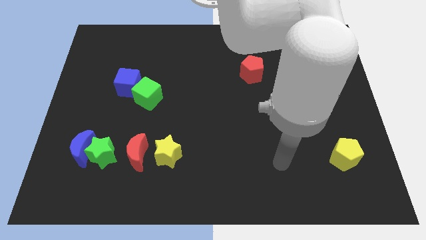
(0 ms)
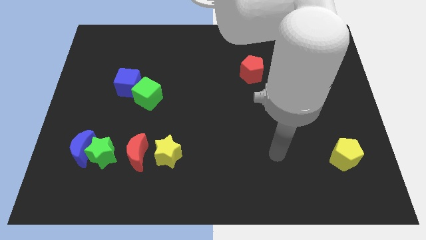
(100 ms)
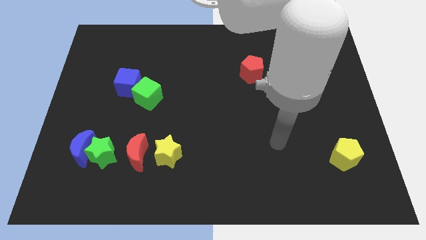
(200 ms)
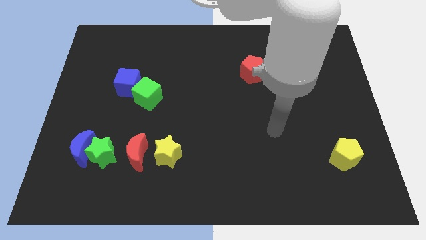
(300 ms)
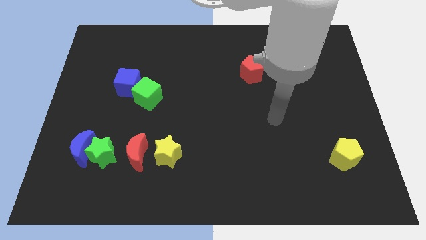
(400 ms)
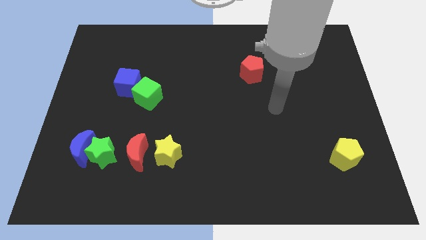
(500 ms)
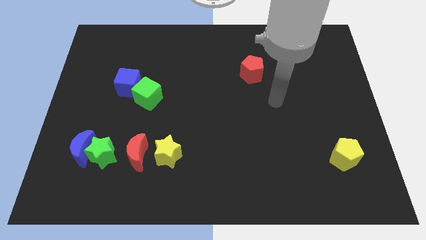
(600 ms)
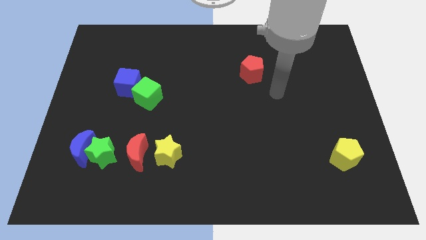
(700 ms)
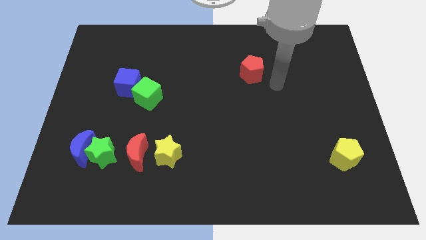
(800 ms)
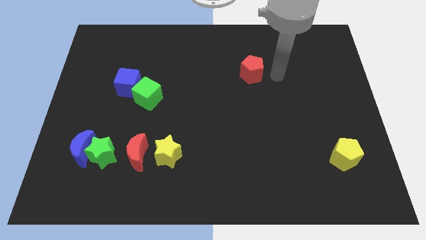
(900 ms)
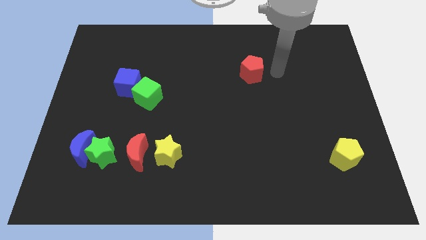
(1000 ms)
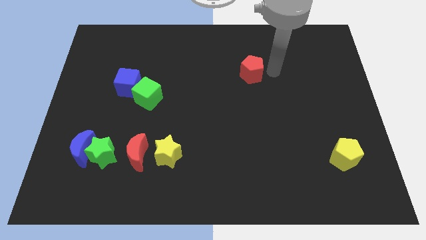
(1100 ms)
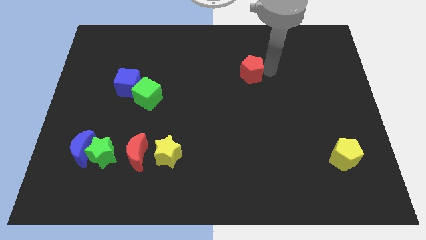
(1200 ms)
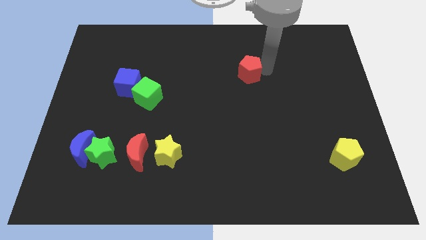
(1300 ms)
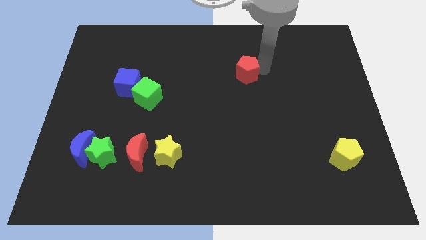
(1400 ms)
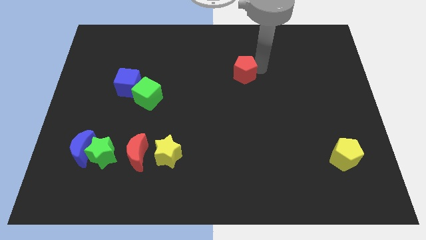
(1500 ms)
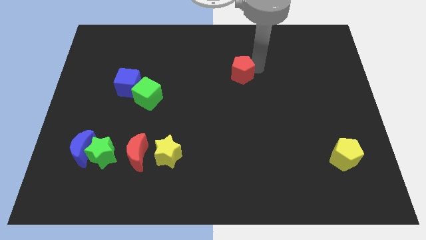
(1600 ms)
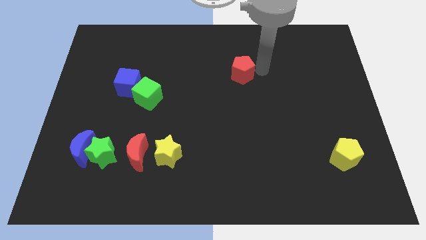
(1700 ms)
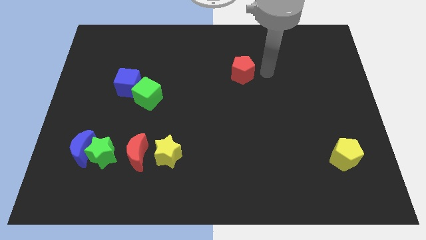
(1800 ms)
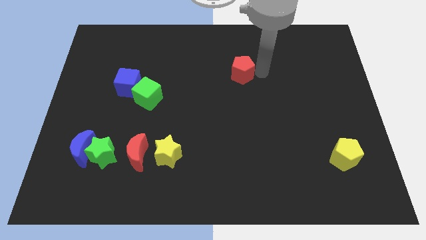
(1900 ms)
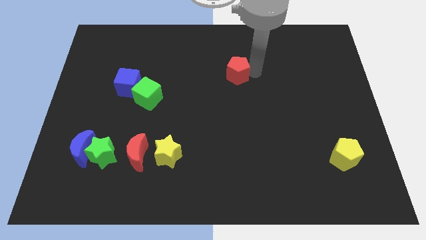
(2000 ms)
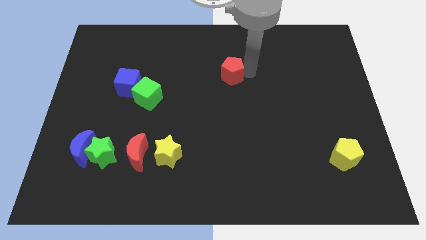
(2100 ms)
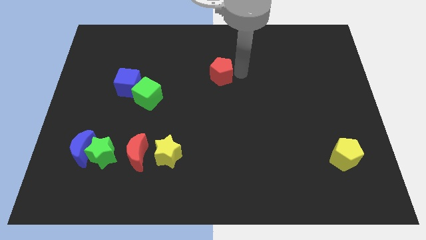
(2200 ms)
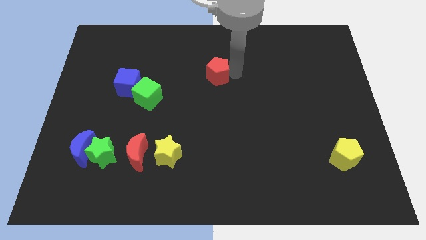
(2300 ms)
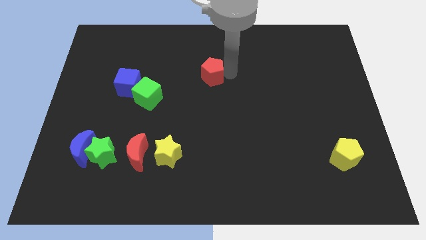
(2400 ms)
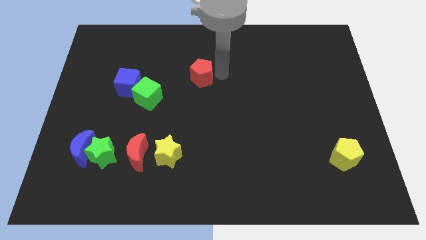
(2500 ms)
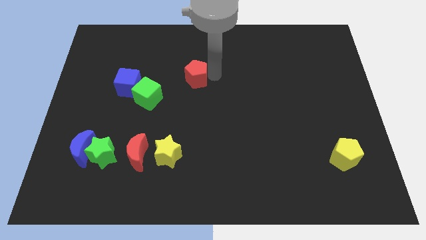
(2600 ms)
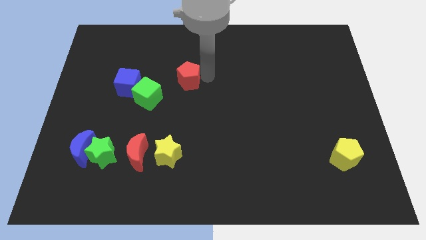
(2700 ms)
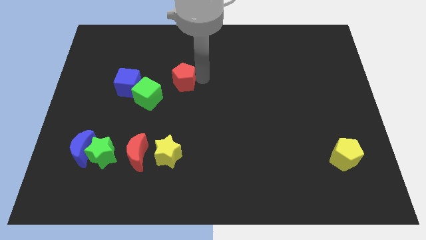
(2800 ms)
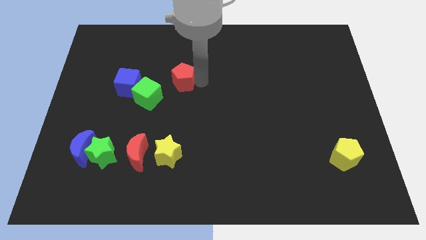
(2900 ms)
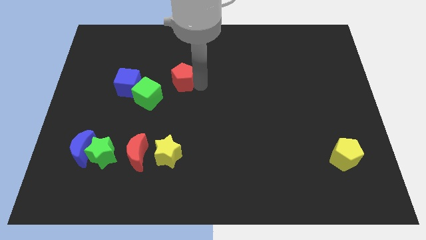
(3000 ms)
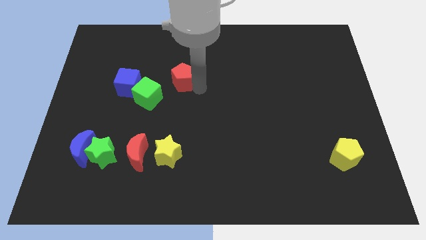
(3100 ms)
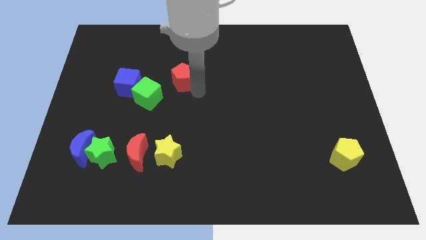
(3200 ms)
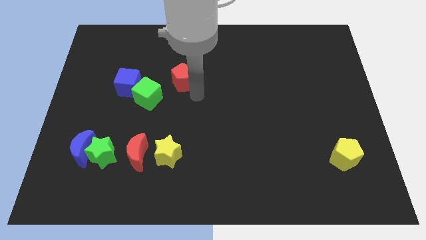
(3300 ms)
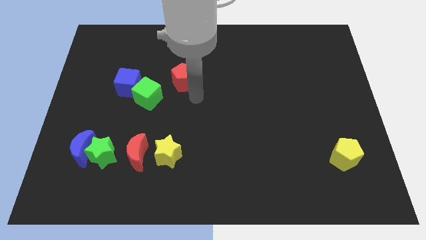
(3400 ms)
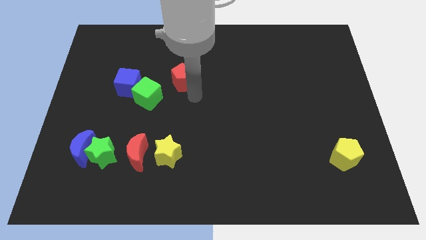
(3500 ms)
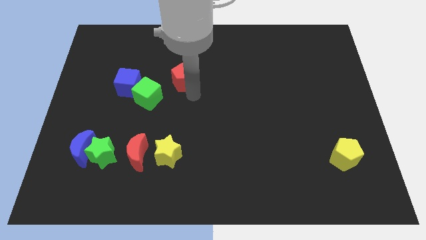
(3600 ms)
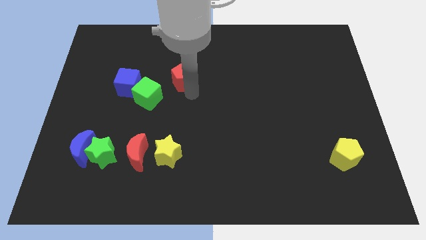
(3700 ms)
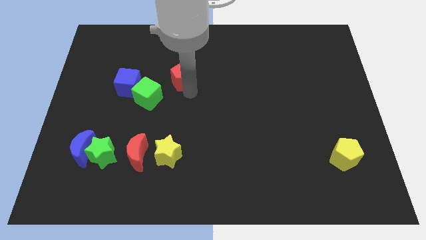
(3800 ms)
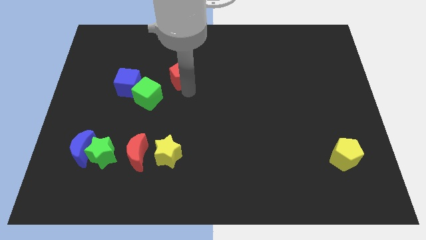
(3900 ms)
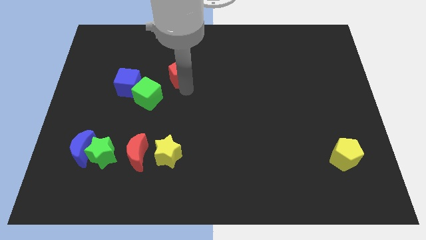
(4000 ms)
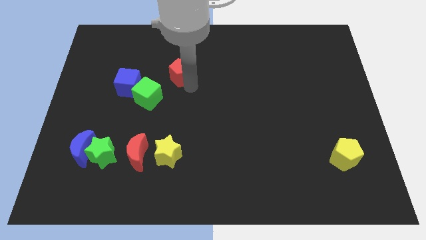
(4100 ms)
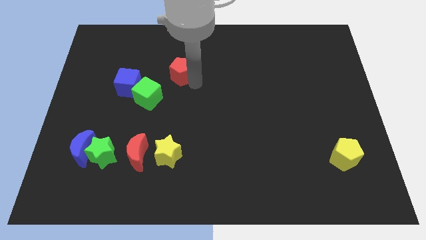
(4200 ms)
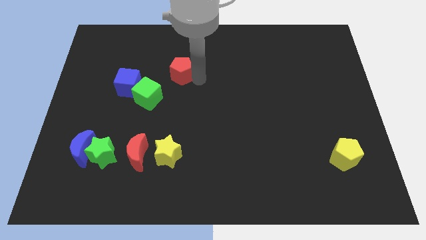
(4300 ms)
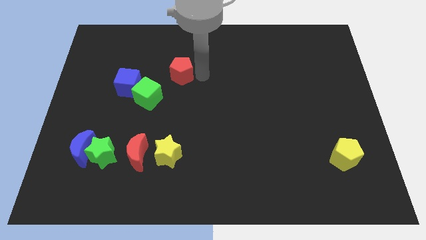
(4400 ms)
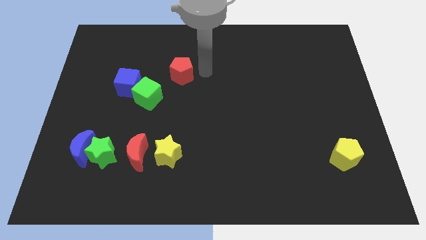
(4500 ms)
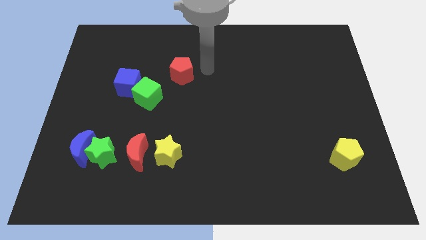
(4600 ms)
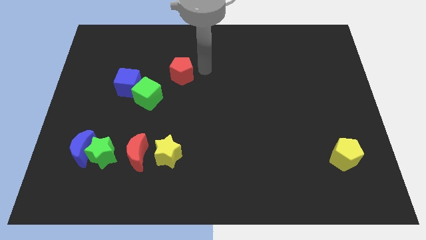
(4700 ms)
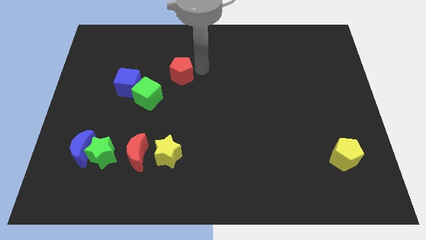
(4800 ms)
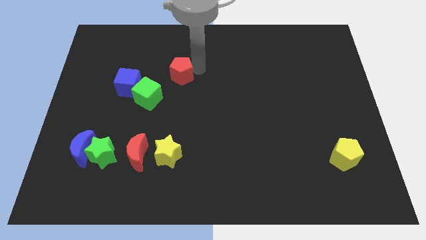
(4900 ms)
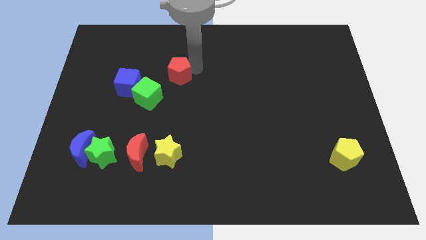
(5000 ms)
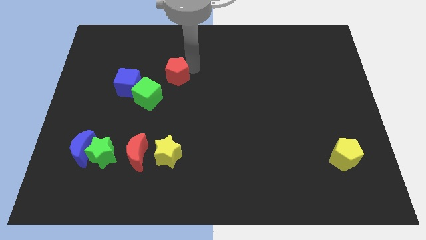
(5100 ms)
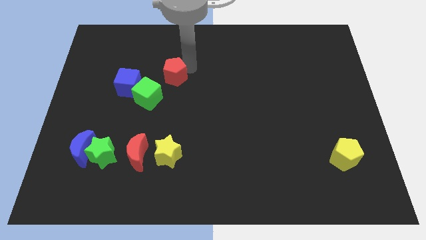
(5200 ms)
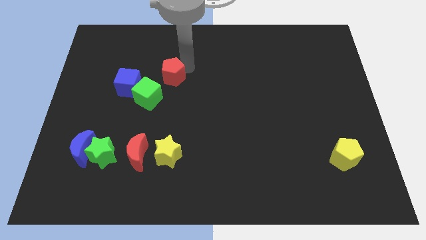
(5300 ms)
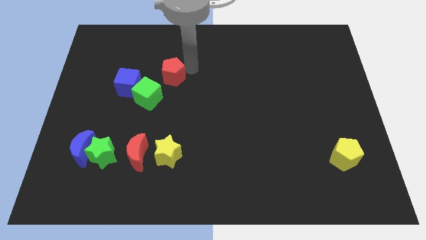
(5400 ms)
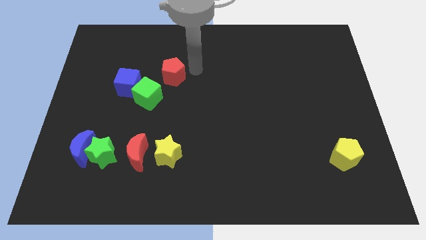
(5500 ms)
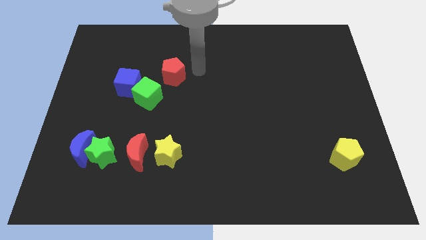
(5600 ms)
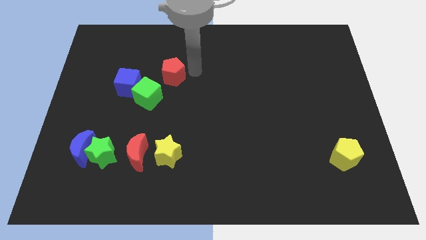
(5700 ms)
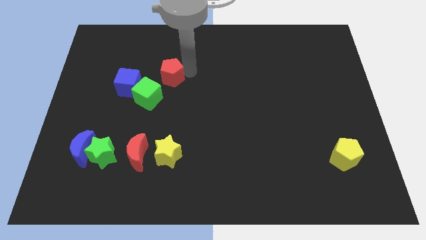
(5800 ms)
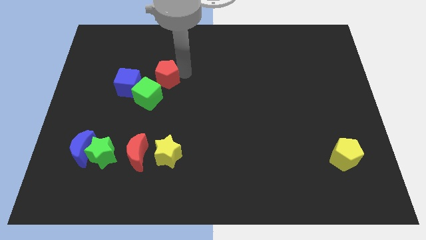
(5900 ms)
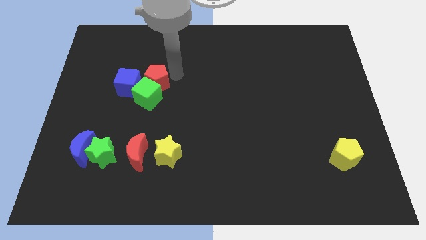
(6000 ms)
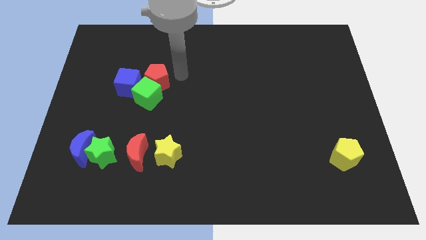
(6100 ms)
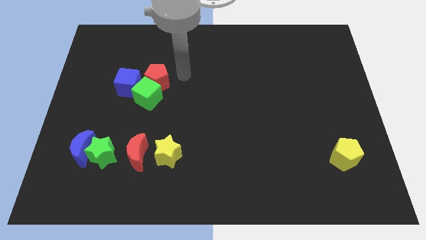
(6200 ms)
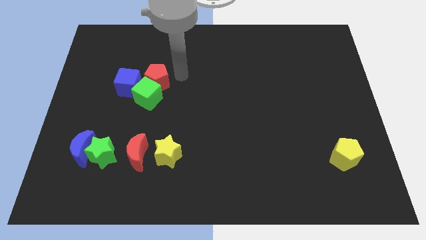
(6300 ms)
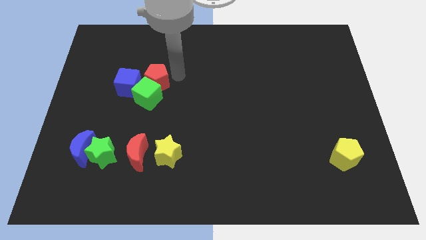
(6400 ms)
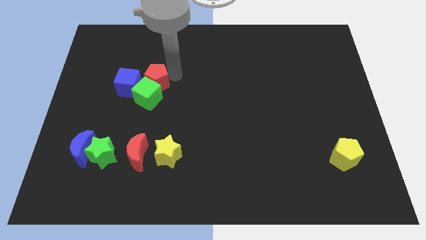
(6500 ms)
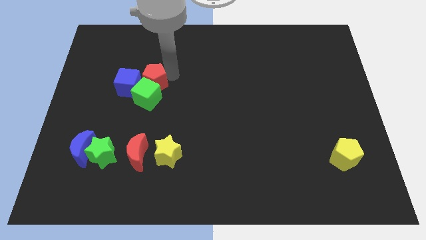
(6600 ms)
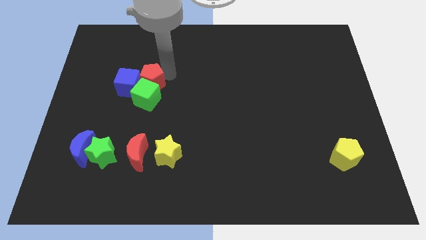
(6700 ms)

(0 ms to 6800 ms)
slide the red pentagon next to the blue cube
